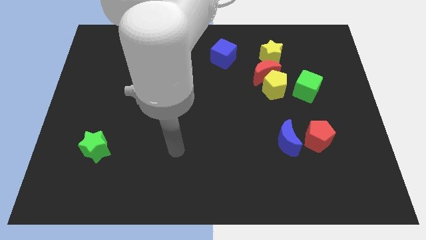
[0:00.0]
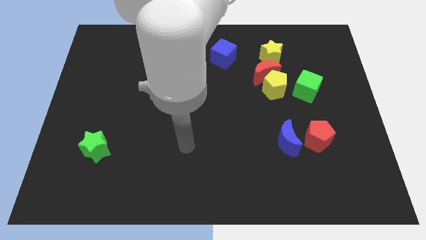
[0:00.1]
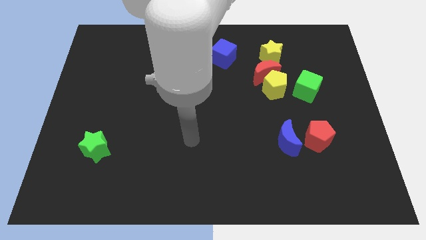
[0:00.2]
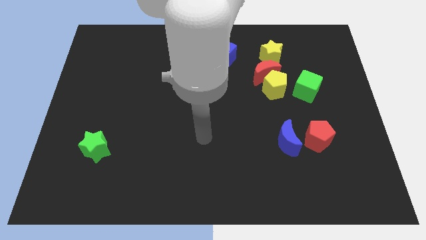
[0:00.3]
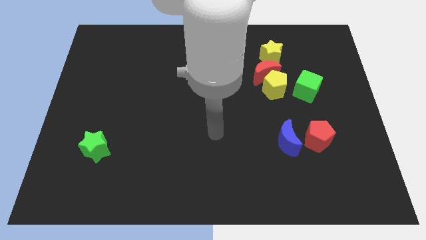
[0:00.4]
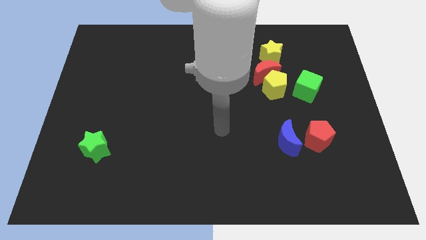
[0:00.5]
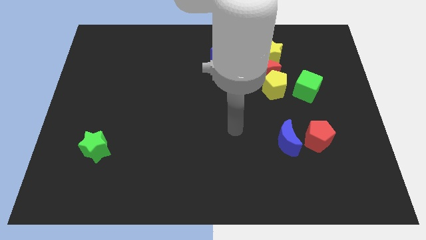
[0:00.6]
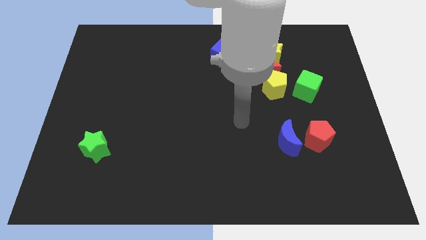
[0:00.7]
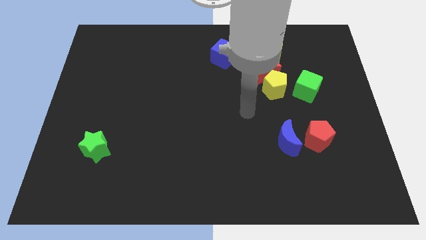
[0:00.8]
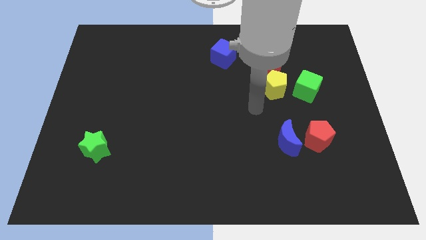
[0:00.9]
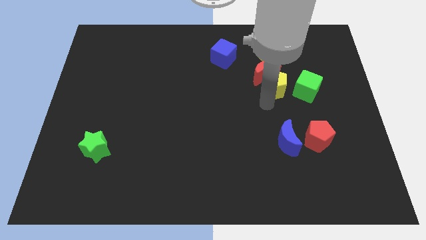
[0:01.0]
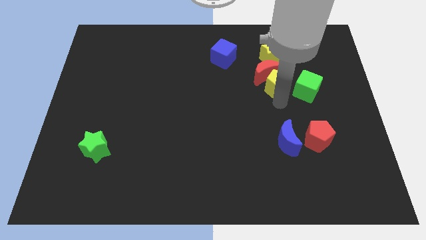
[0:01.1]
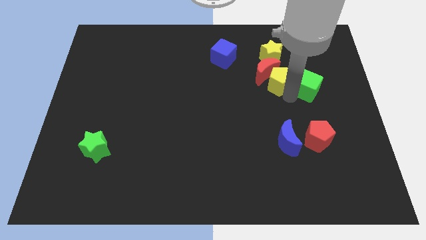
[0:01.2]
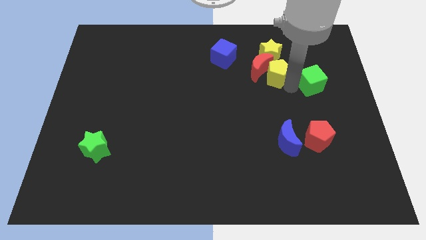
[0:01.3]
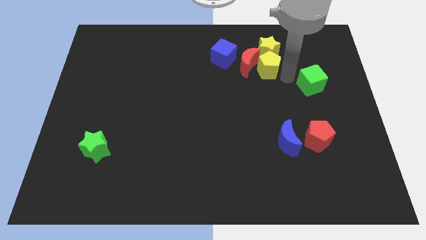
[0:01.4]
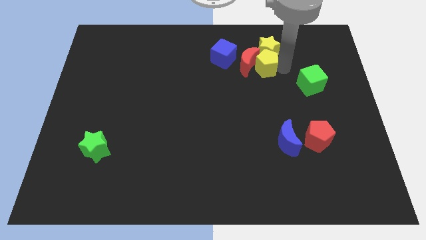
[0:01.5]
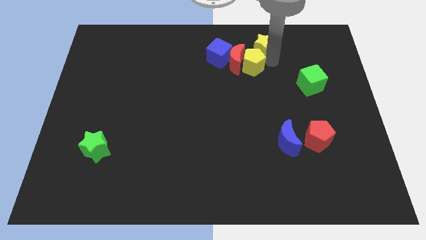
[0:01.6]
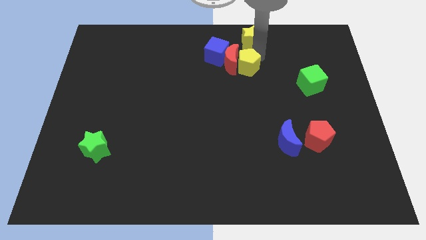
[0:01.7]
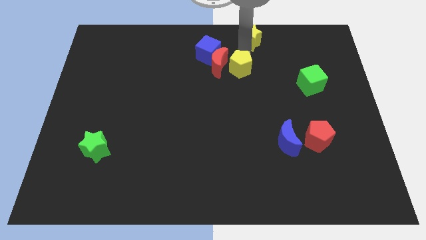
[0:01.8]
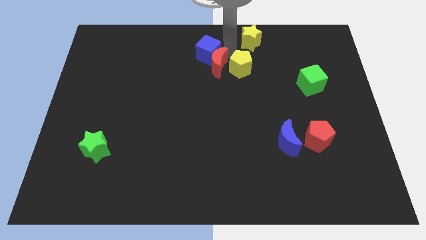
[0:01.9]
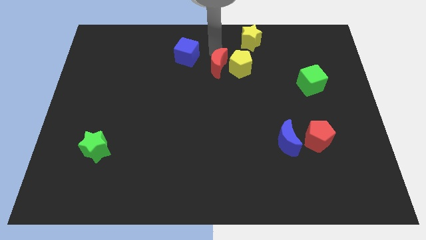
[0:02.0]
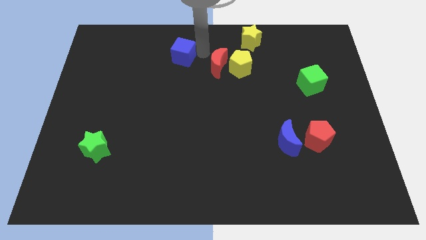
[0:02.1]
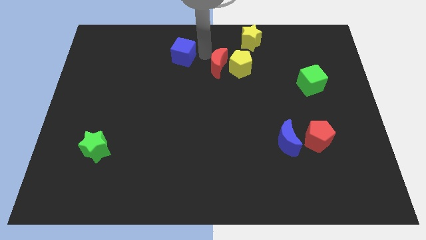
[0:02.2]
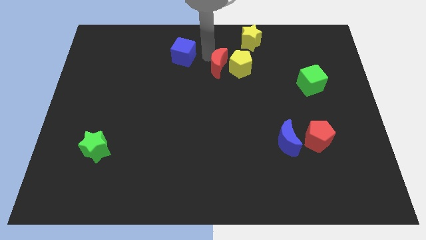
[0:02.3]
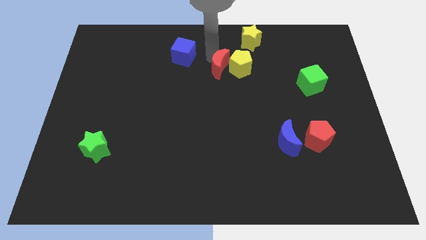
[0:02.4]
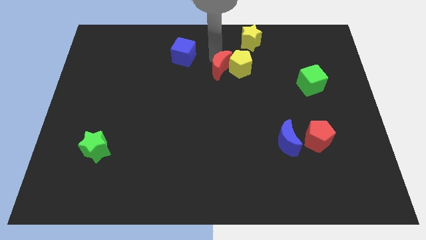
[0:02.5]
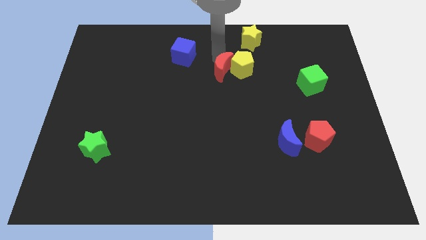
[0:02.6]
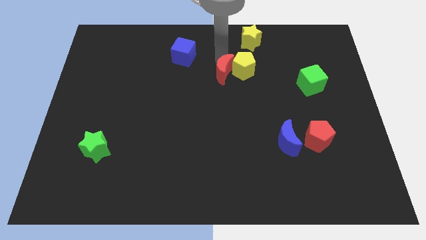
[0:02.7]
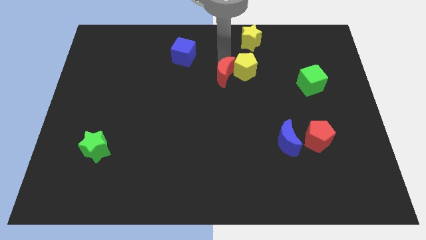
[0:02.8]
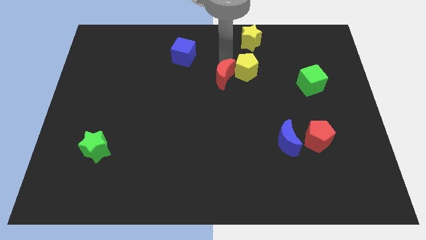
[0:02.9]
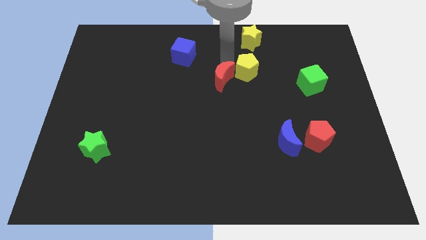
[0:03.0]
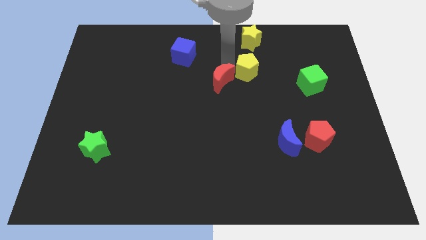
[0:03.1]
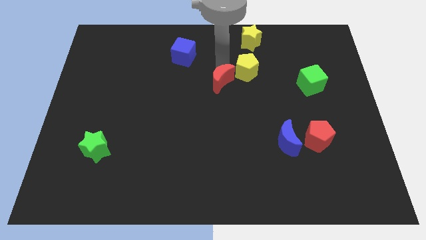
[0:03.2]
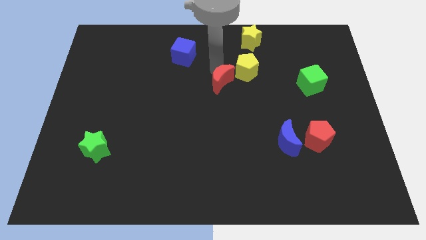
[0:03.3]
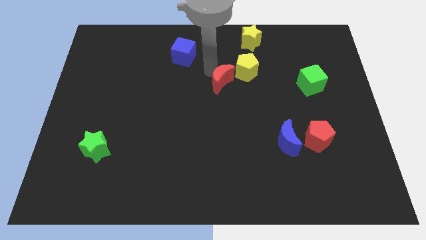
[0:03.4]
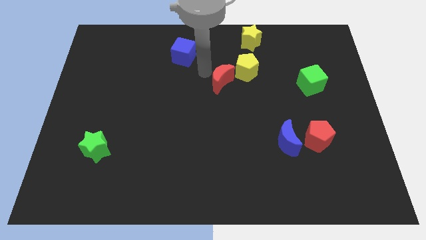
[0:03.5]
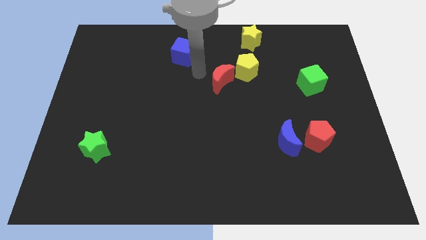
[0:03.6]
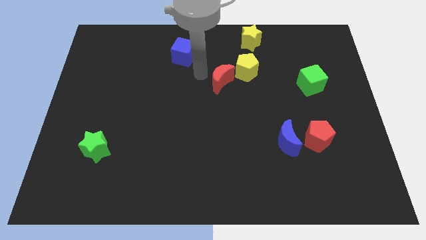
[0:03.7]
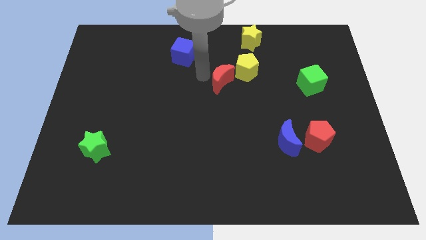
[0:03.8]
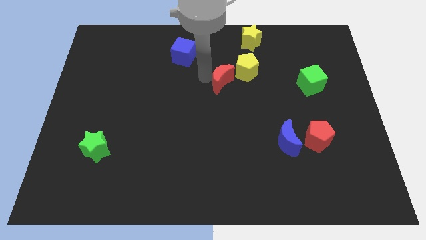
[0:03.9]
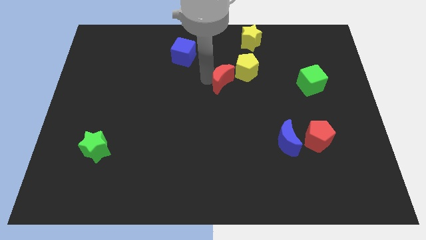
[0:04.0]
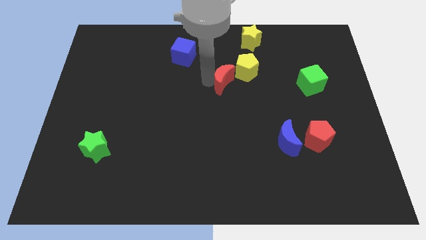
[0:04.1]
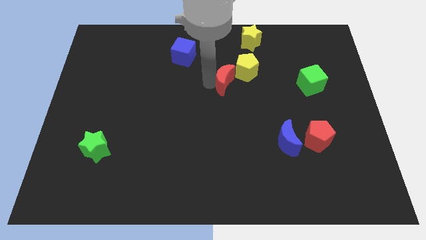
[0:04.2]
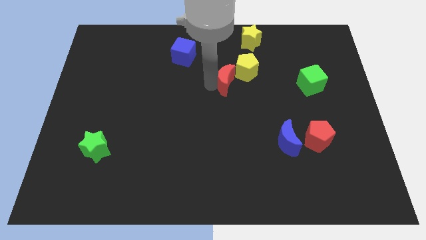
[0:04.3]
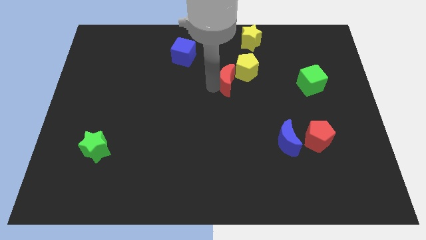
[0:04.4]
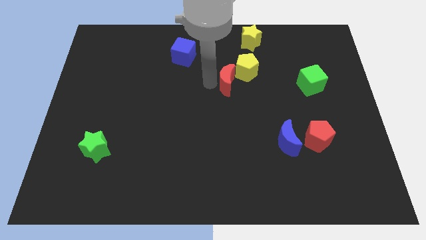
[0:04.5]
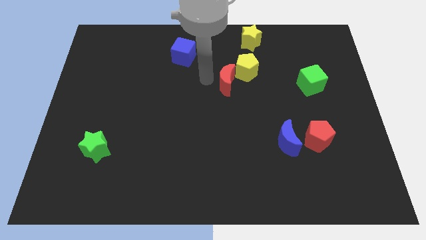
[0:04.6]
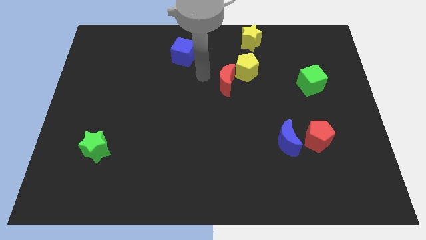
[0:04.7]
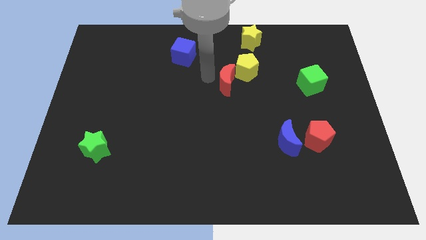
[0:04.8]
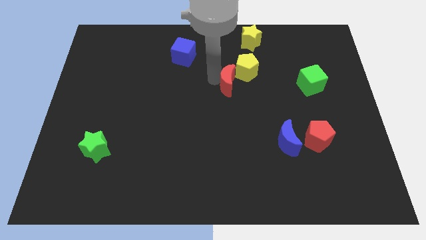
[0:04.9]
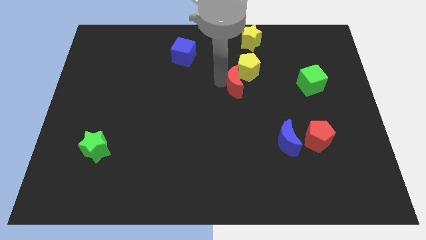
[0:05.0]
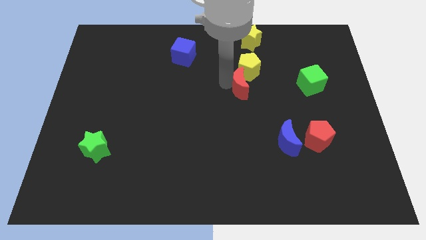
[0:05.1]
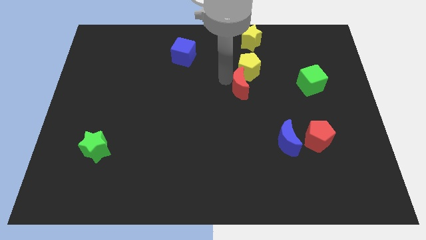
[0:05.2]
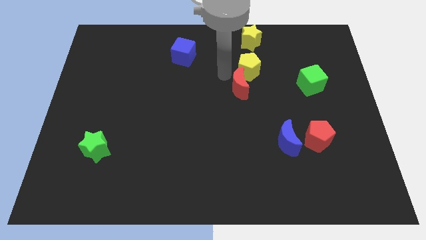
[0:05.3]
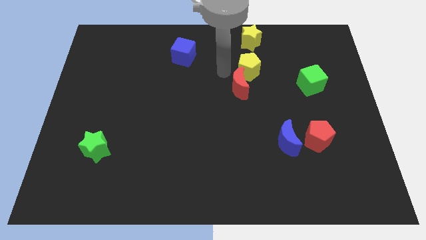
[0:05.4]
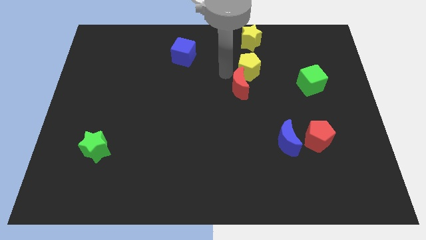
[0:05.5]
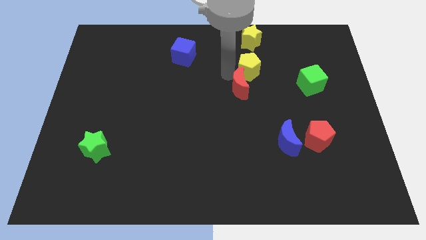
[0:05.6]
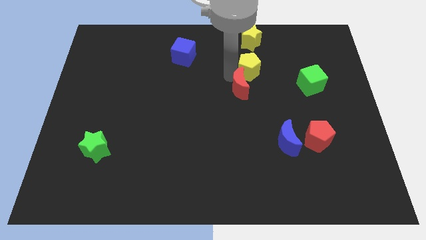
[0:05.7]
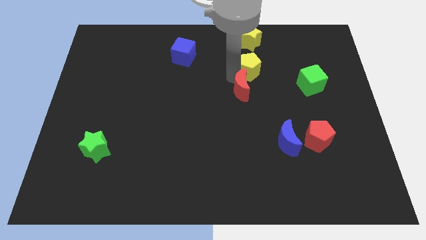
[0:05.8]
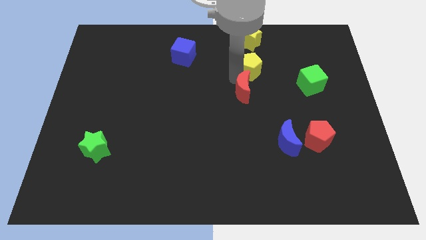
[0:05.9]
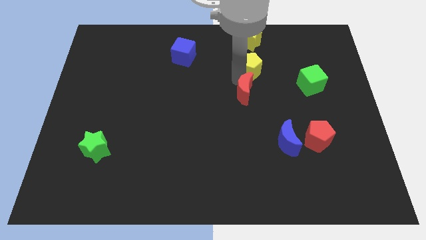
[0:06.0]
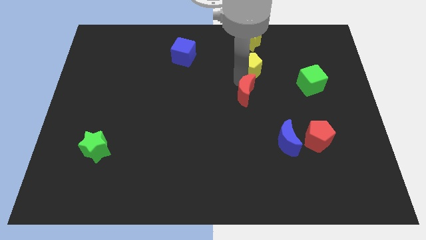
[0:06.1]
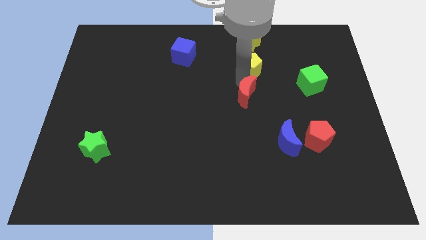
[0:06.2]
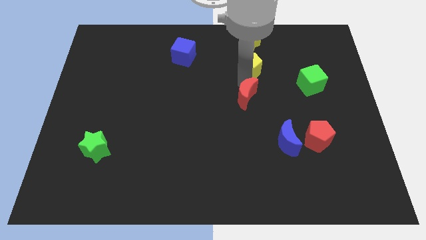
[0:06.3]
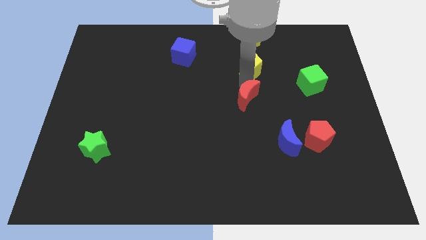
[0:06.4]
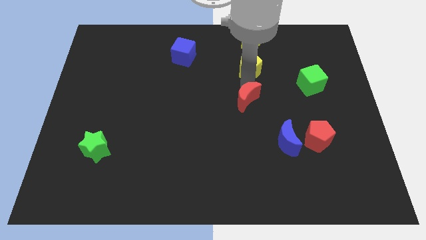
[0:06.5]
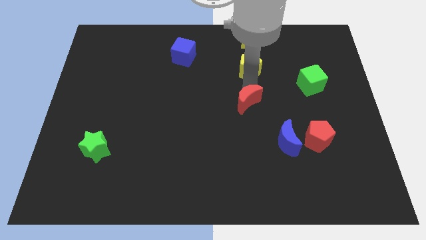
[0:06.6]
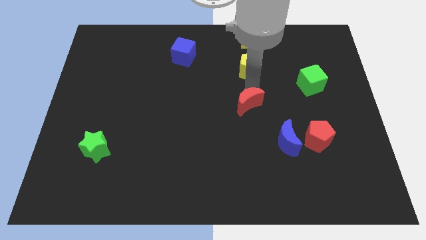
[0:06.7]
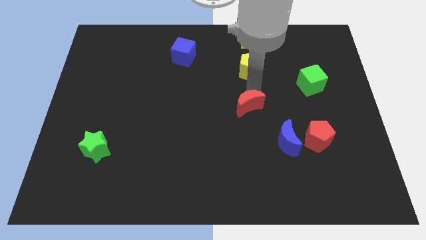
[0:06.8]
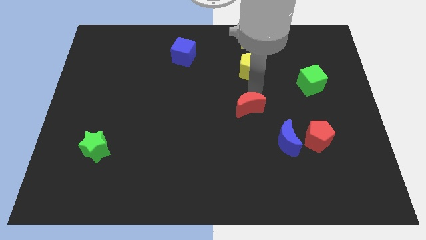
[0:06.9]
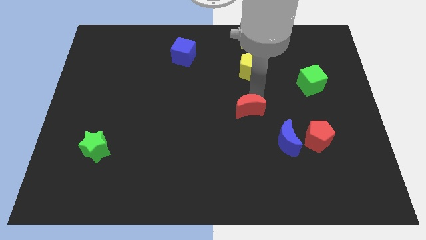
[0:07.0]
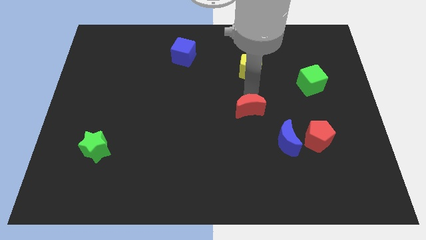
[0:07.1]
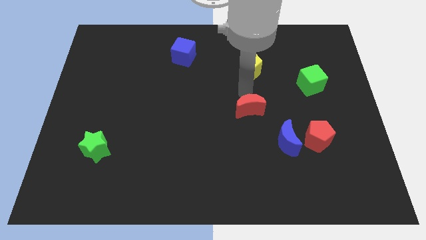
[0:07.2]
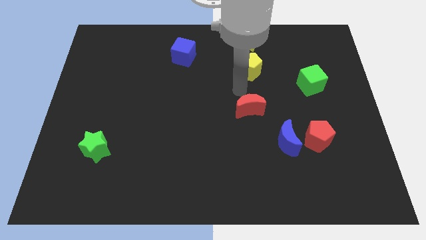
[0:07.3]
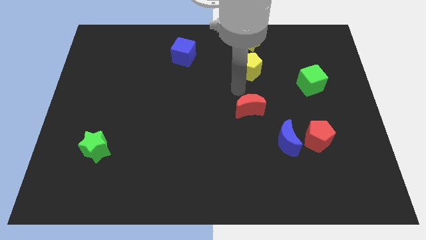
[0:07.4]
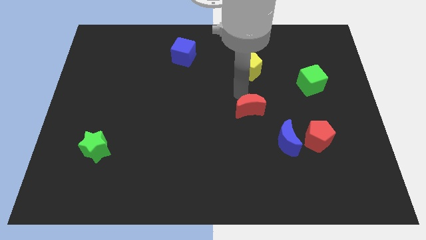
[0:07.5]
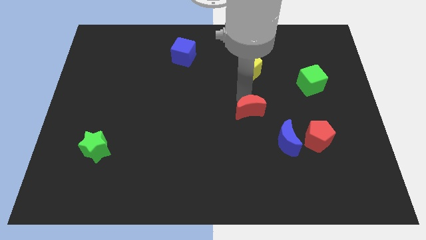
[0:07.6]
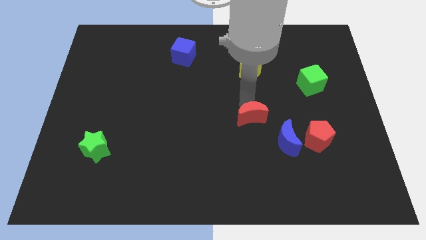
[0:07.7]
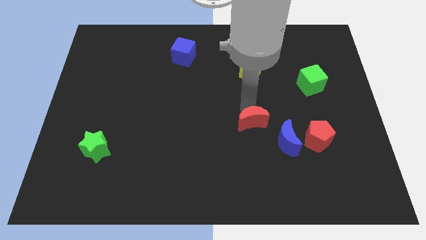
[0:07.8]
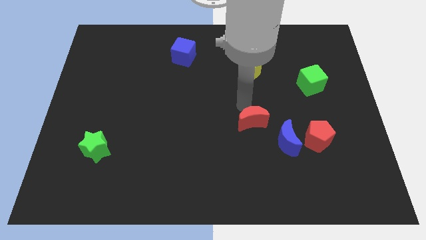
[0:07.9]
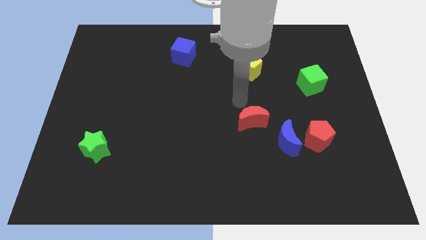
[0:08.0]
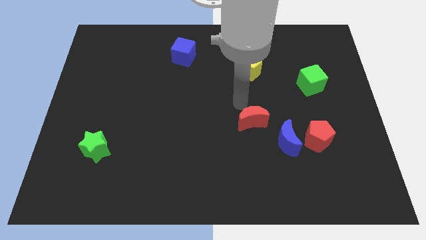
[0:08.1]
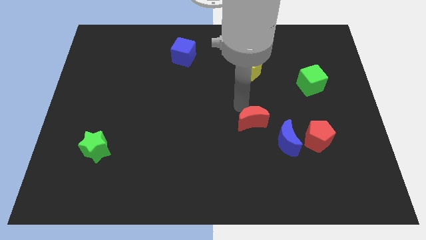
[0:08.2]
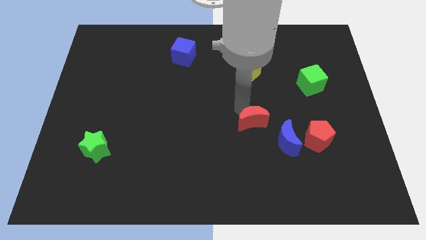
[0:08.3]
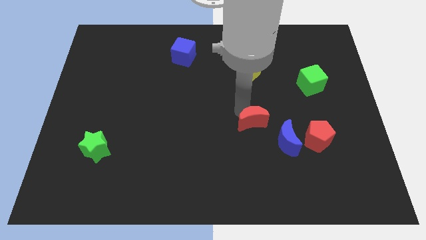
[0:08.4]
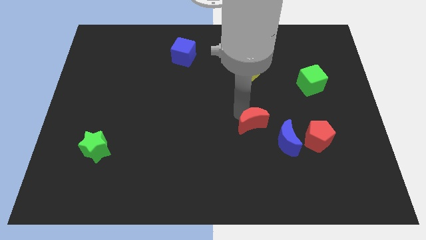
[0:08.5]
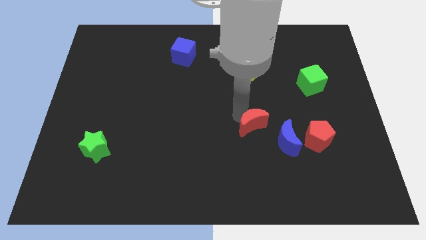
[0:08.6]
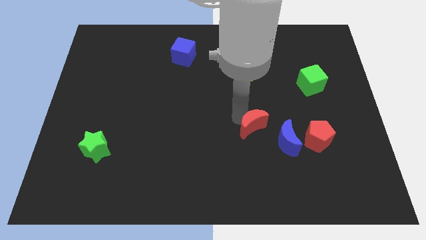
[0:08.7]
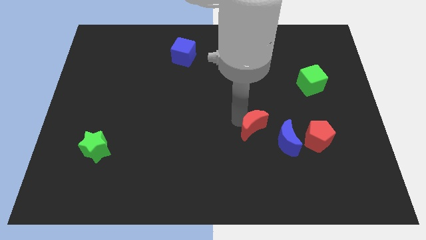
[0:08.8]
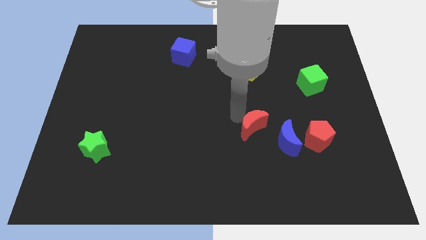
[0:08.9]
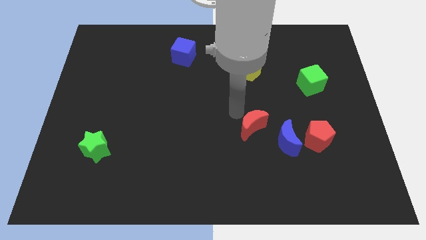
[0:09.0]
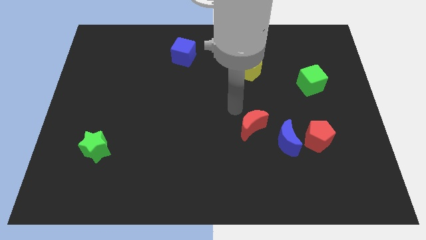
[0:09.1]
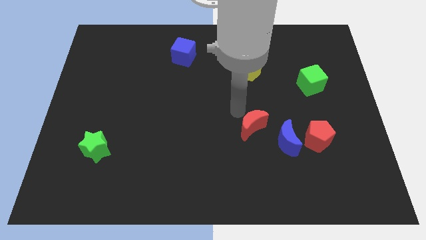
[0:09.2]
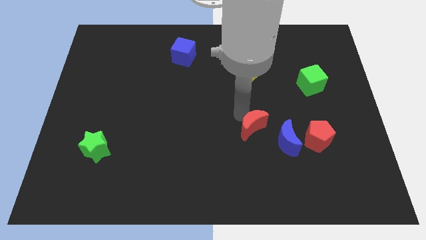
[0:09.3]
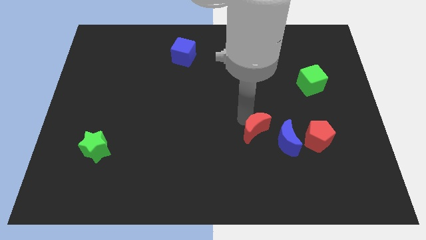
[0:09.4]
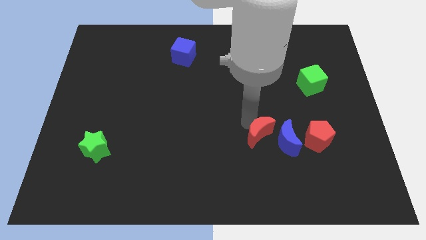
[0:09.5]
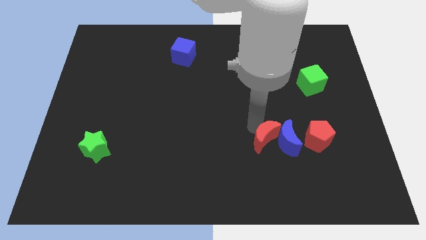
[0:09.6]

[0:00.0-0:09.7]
push the red moon to the bottom left of the blue moon
